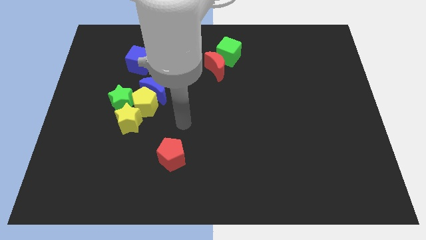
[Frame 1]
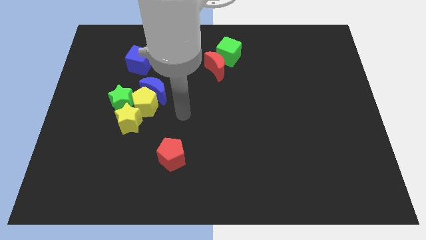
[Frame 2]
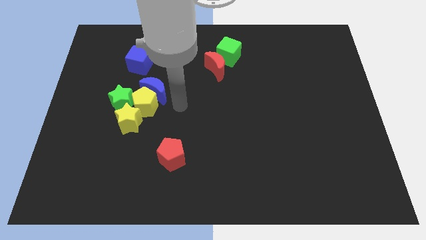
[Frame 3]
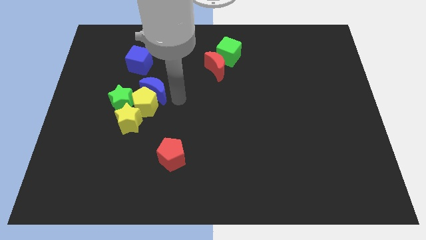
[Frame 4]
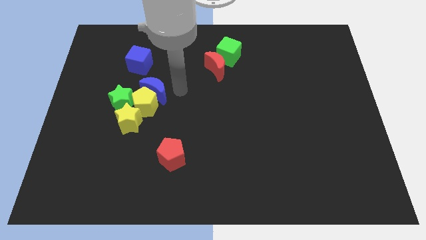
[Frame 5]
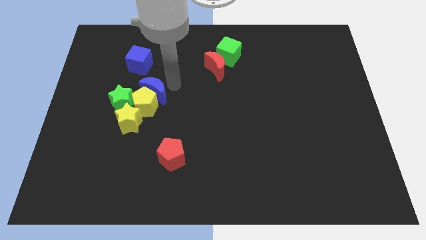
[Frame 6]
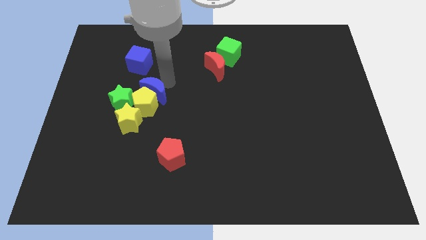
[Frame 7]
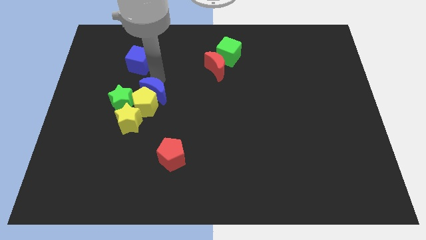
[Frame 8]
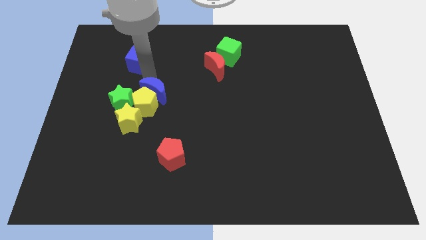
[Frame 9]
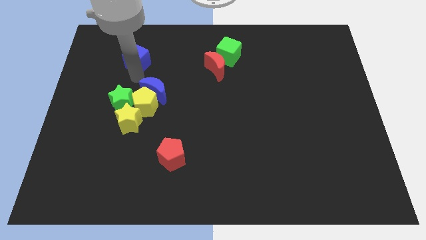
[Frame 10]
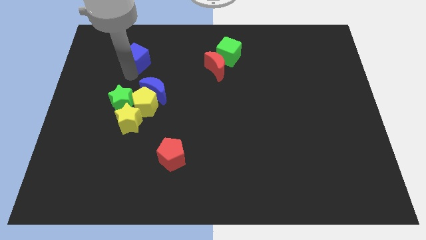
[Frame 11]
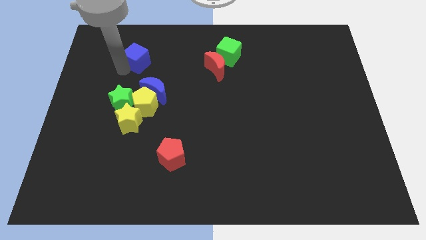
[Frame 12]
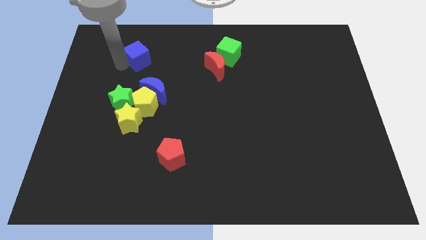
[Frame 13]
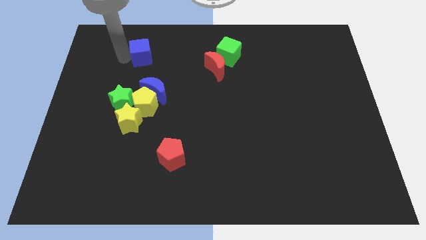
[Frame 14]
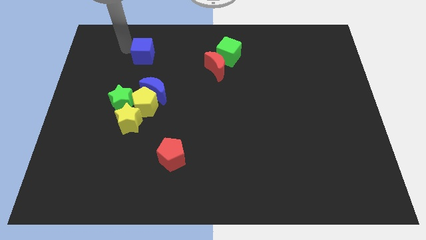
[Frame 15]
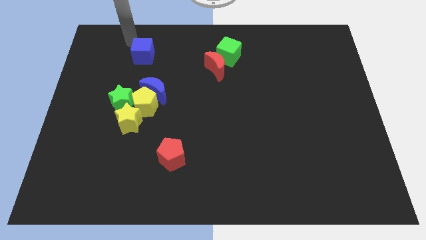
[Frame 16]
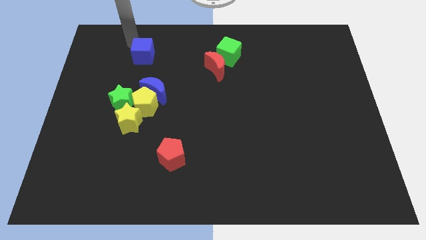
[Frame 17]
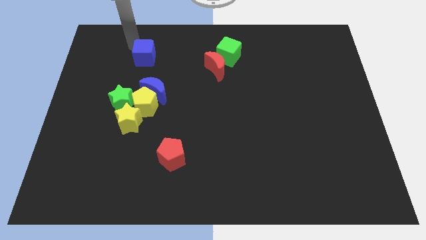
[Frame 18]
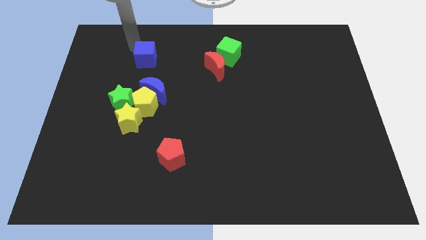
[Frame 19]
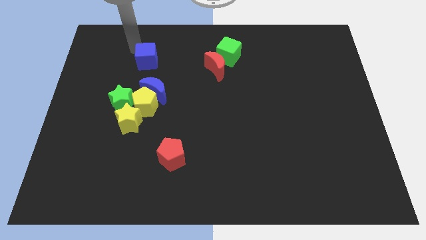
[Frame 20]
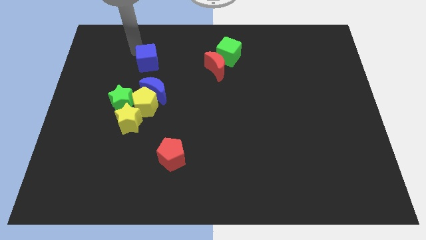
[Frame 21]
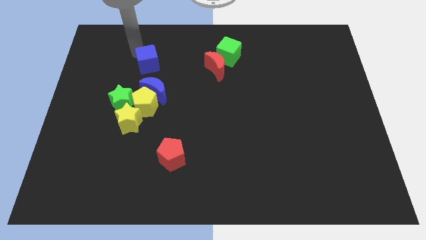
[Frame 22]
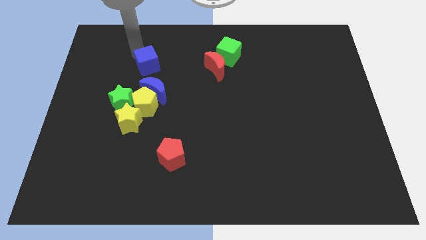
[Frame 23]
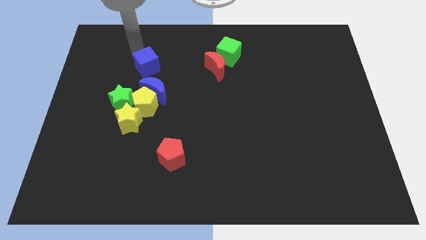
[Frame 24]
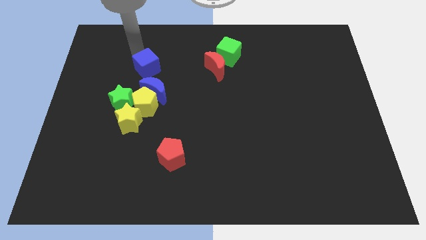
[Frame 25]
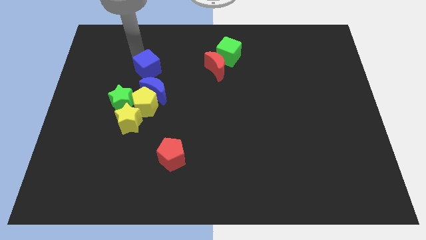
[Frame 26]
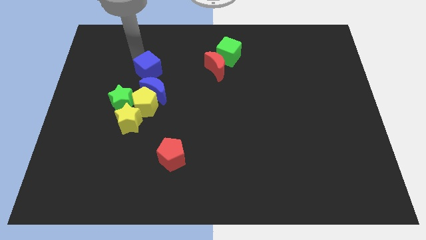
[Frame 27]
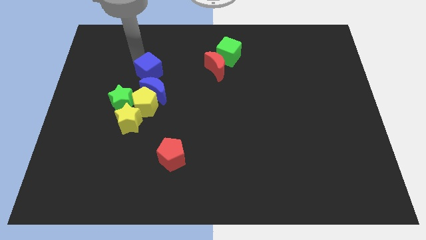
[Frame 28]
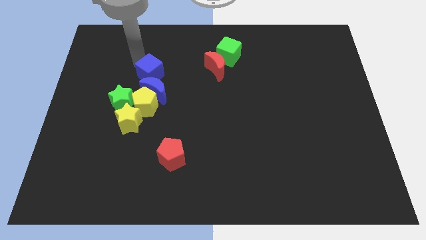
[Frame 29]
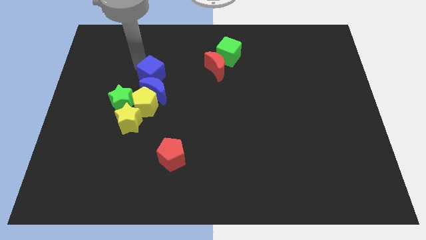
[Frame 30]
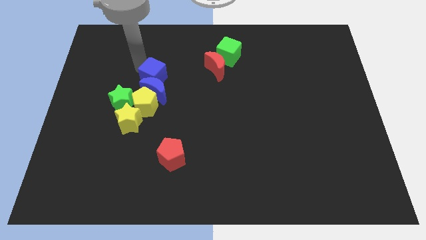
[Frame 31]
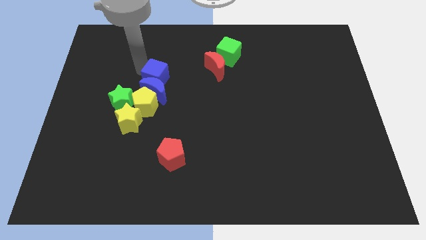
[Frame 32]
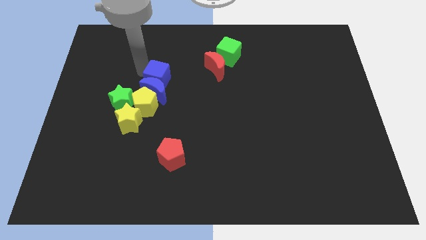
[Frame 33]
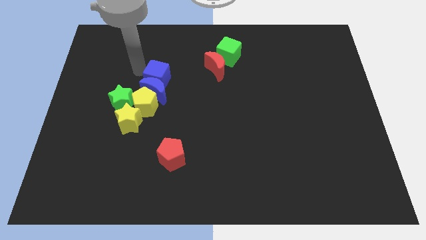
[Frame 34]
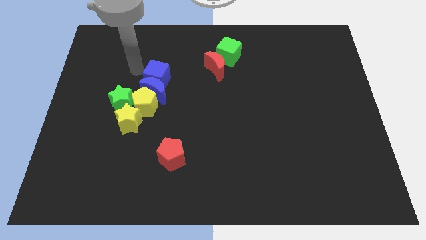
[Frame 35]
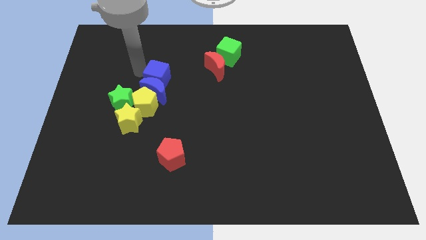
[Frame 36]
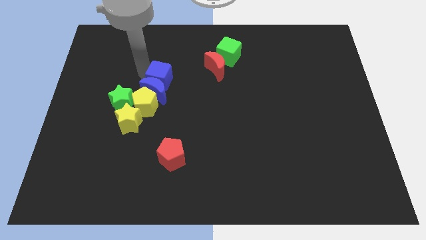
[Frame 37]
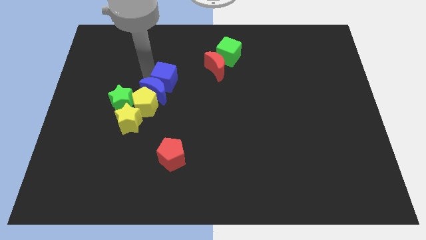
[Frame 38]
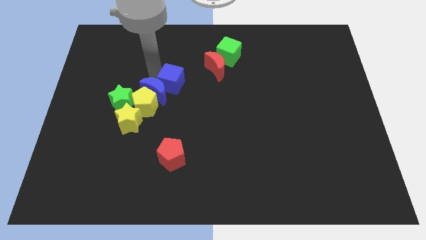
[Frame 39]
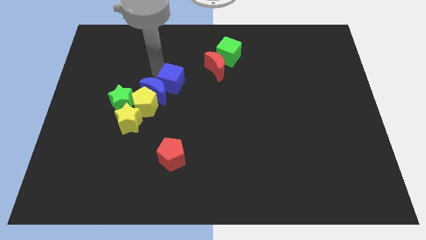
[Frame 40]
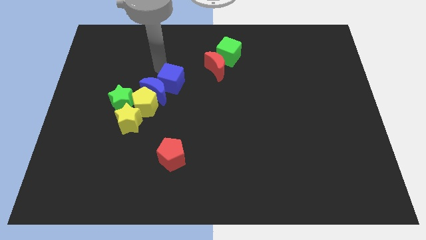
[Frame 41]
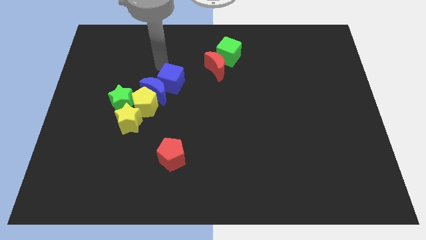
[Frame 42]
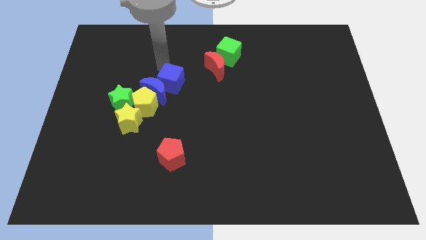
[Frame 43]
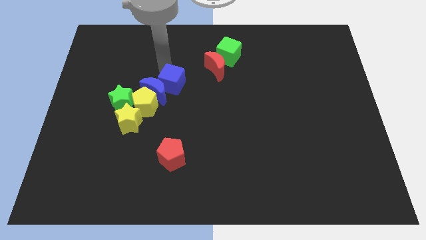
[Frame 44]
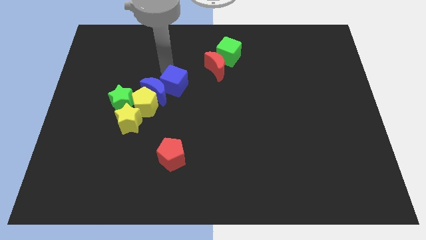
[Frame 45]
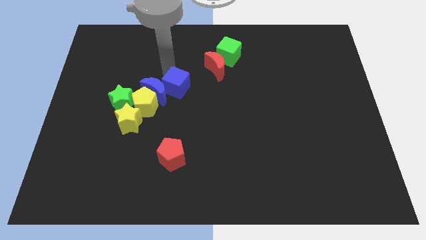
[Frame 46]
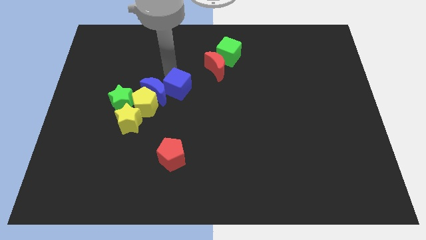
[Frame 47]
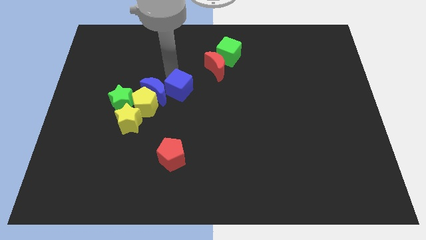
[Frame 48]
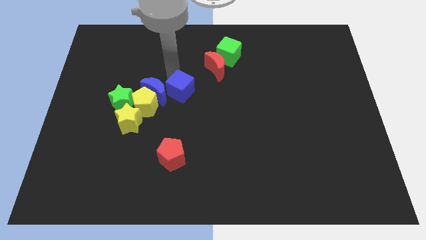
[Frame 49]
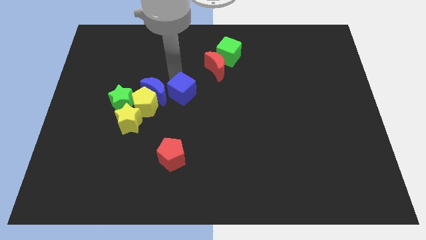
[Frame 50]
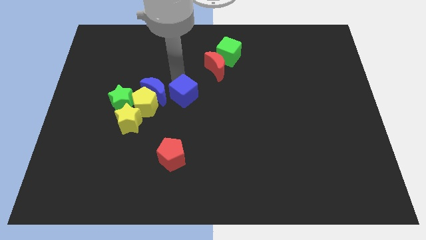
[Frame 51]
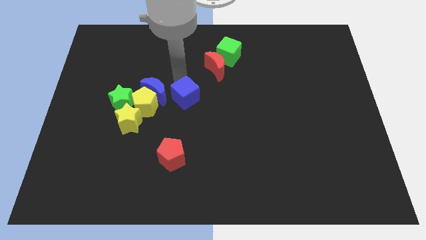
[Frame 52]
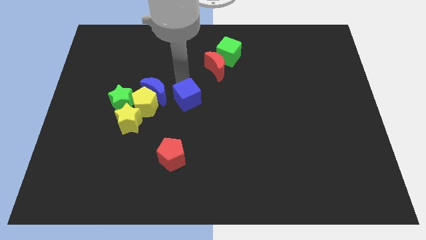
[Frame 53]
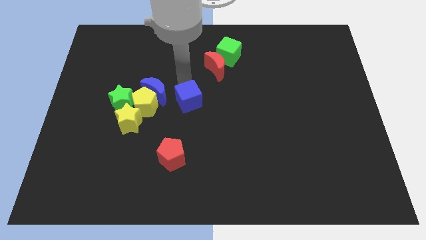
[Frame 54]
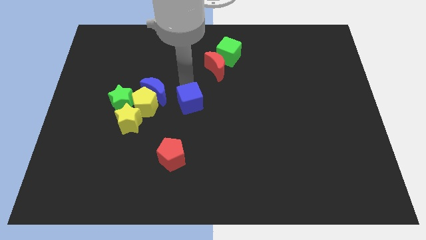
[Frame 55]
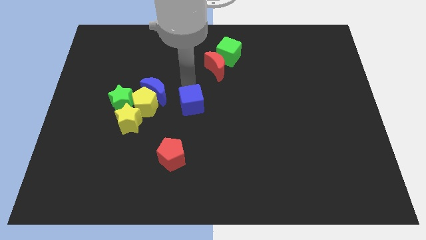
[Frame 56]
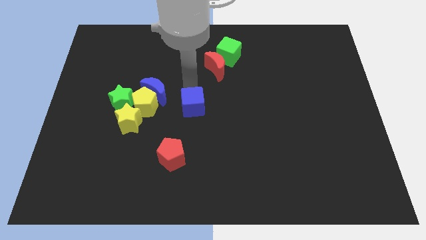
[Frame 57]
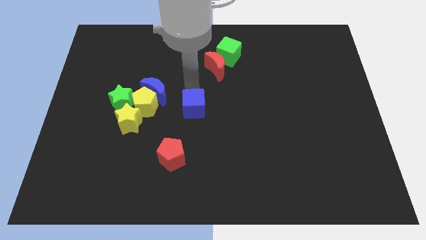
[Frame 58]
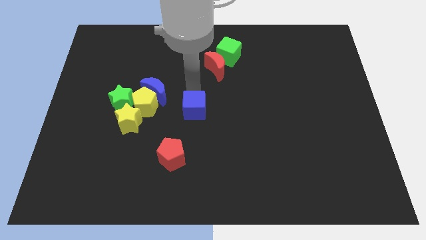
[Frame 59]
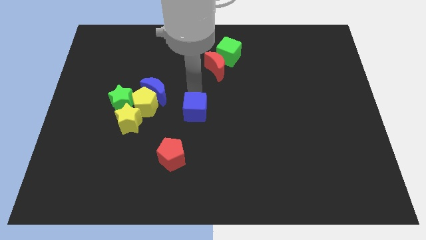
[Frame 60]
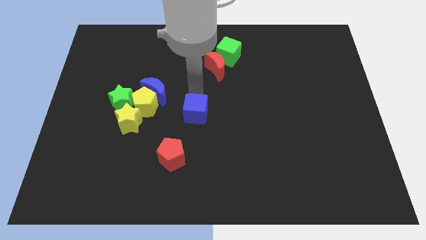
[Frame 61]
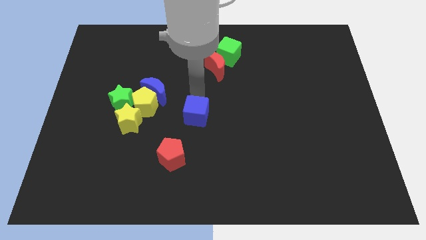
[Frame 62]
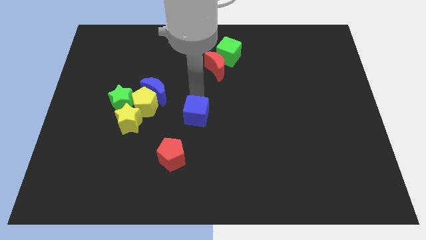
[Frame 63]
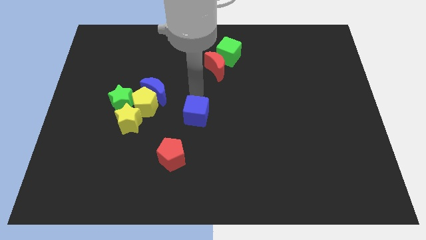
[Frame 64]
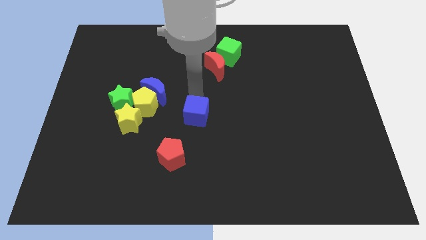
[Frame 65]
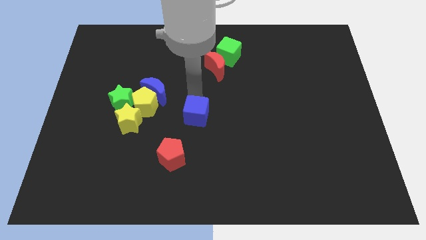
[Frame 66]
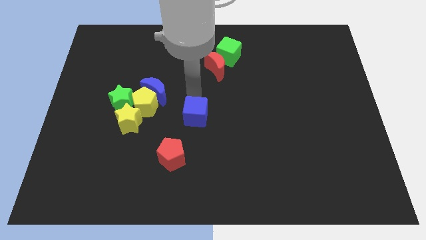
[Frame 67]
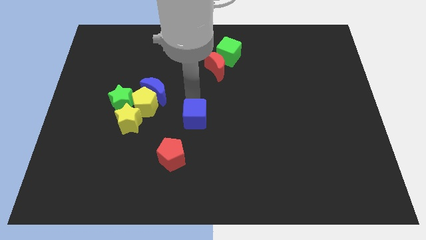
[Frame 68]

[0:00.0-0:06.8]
move the blue cube to the top right of the red pentagon
